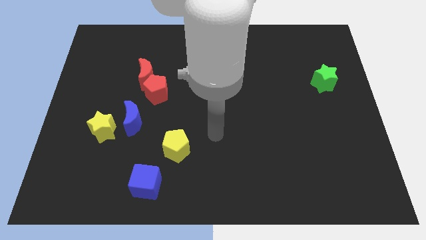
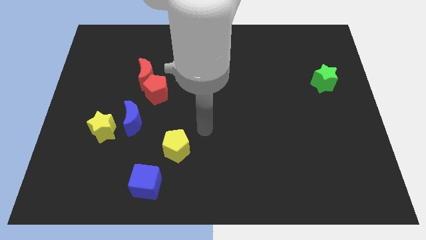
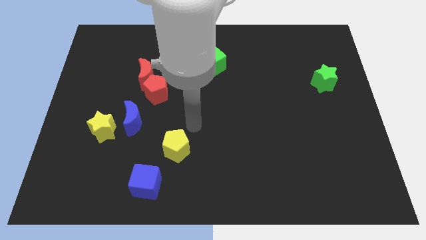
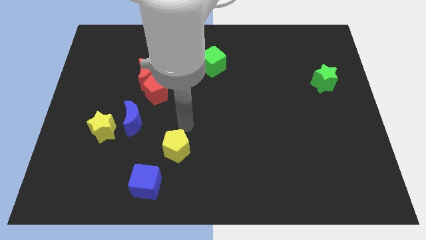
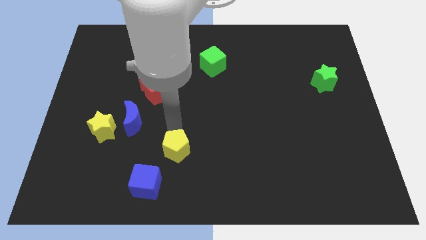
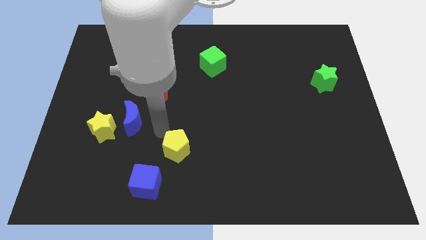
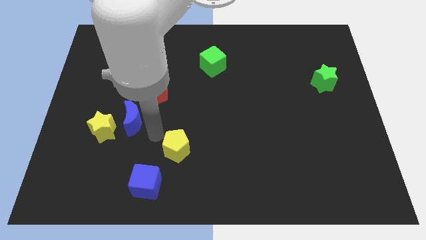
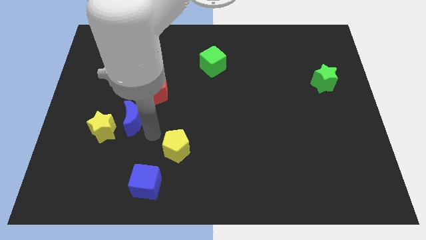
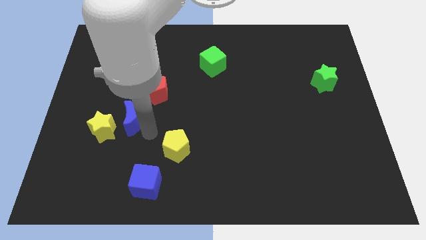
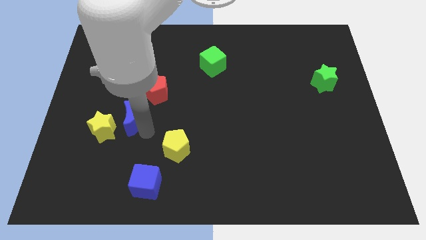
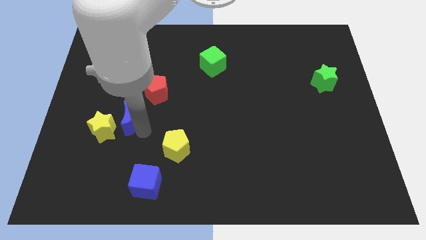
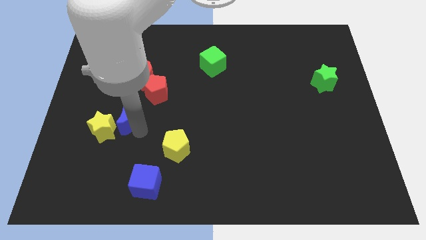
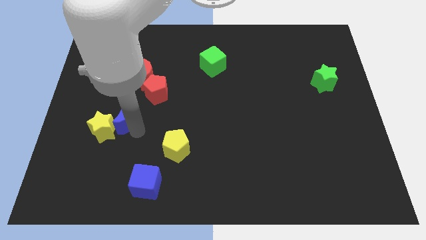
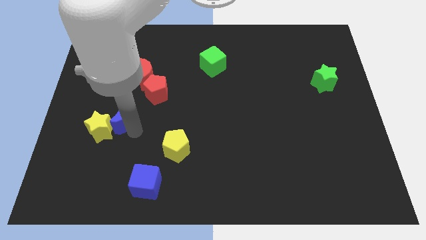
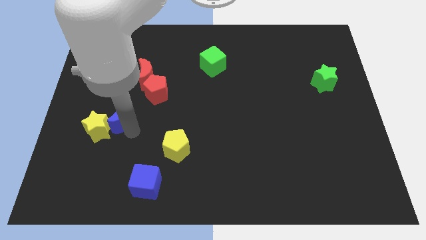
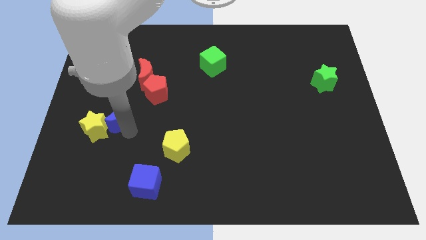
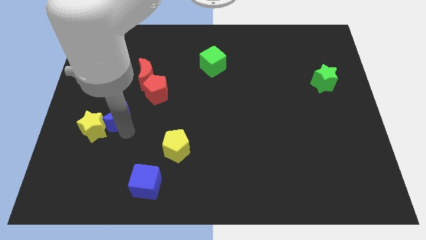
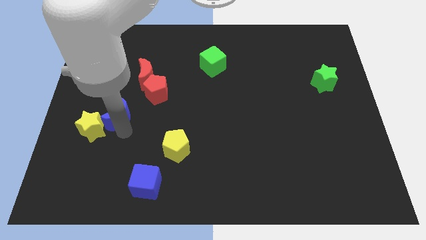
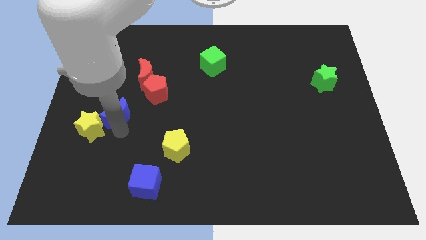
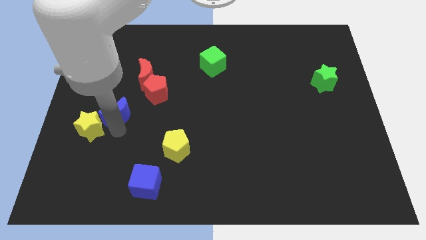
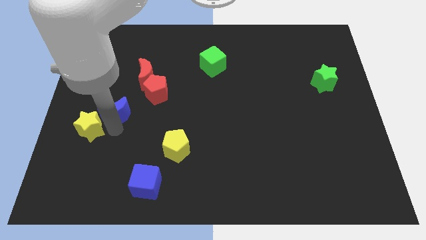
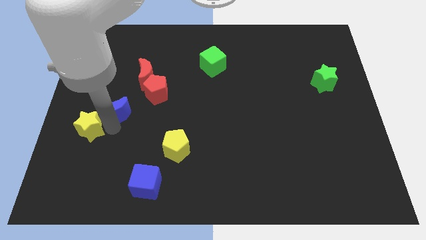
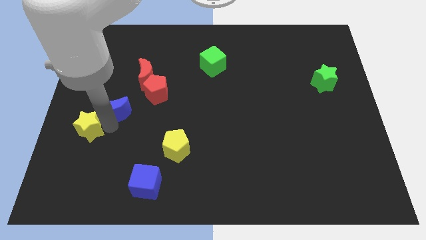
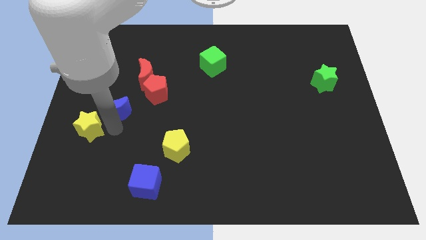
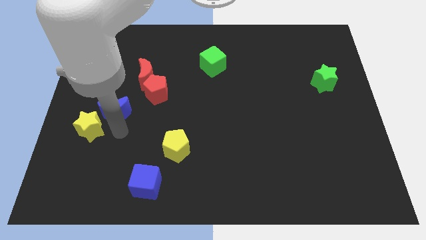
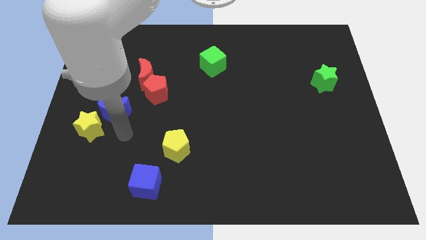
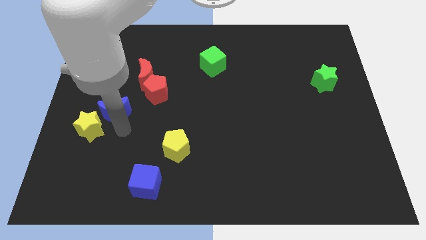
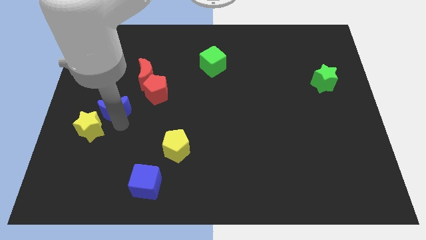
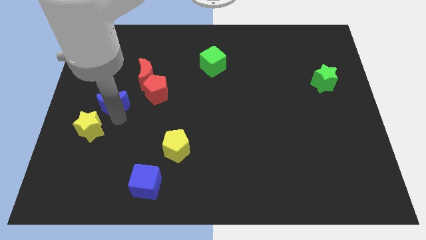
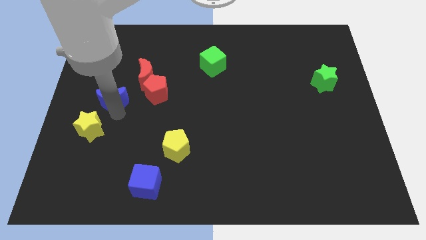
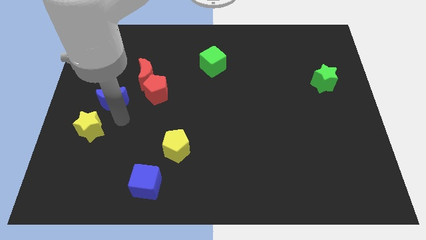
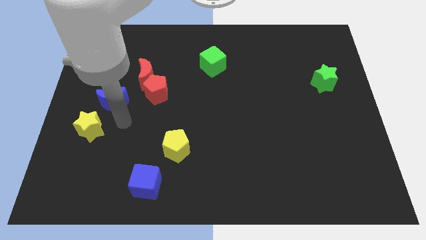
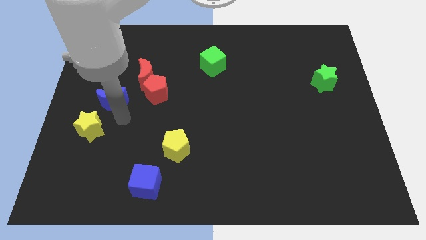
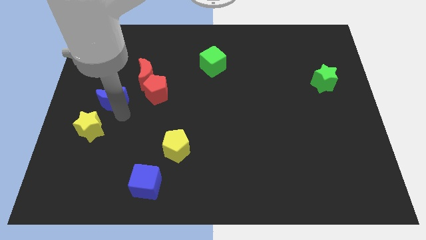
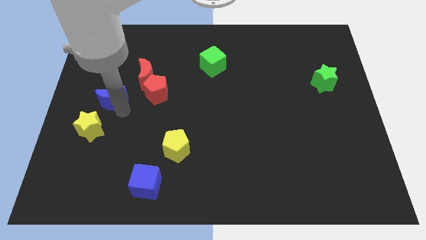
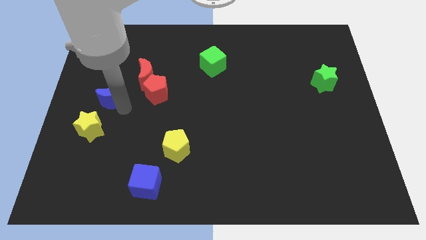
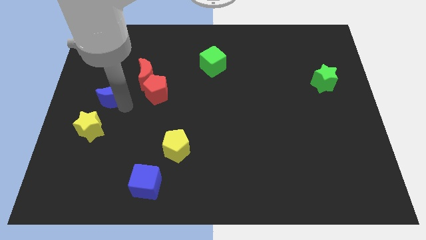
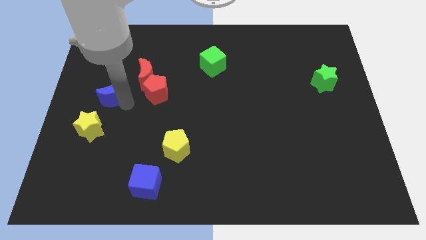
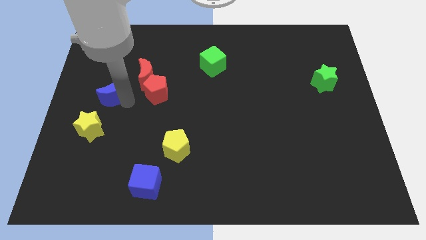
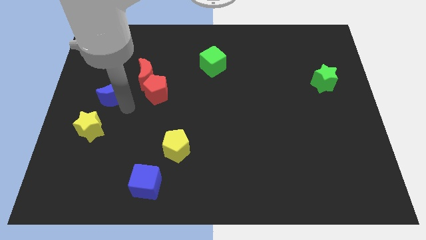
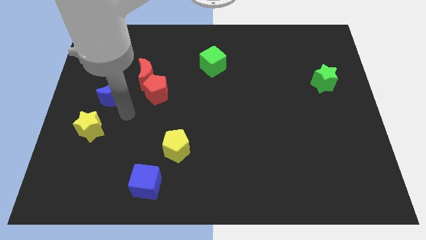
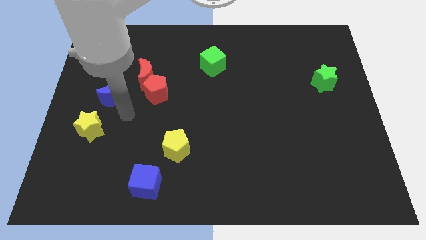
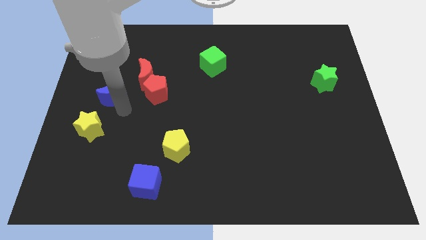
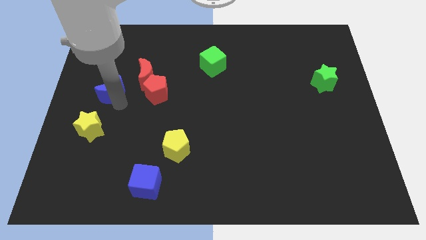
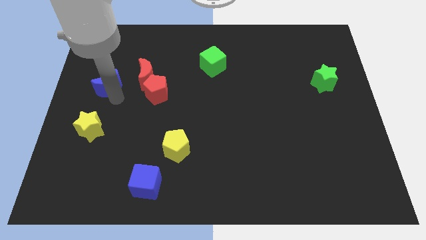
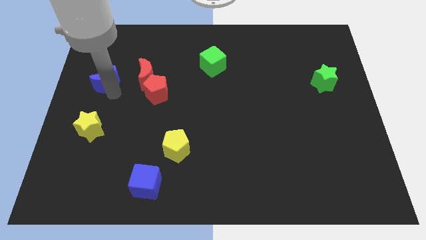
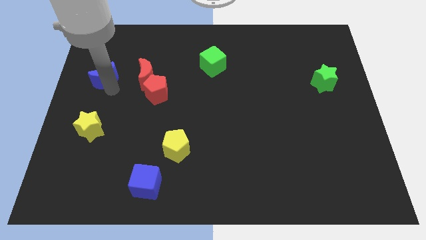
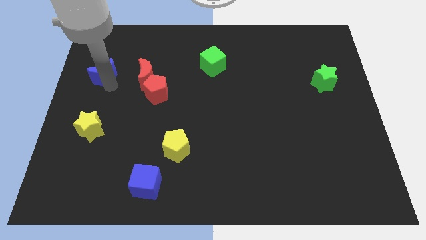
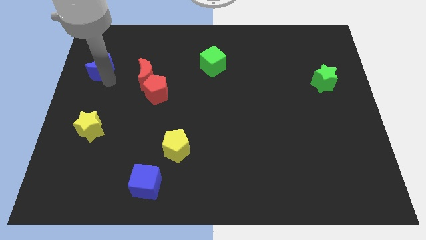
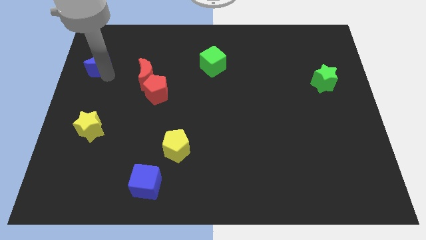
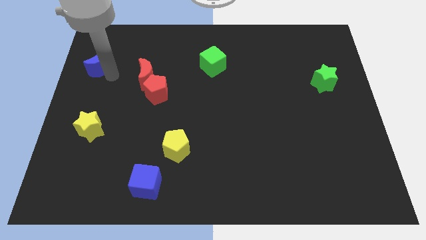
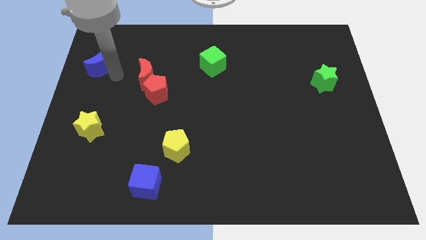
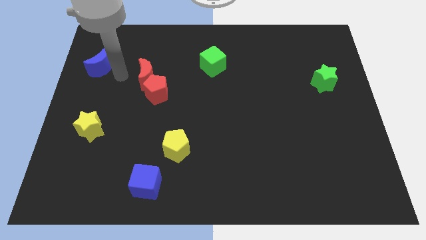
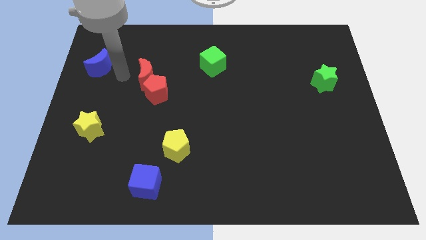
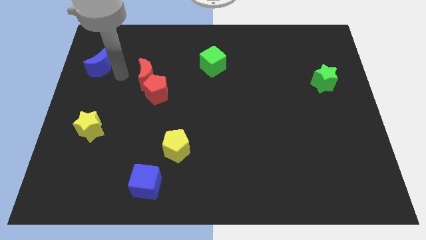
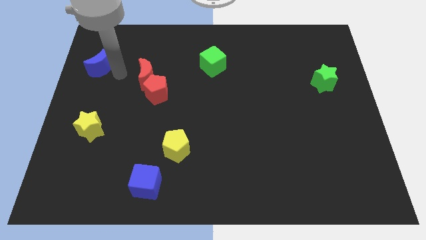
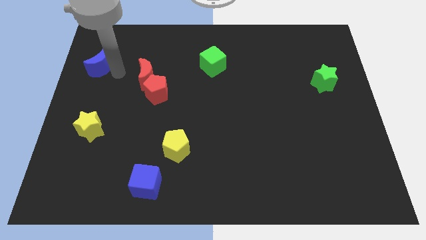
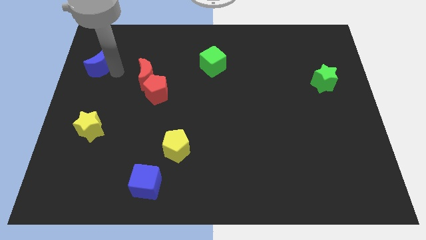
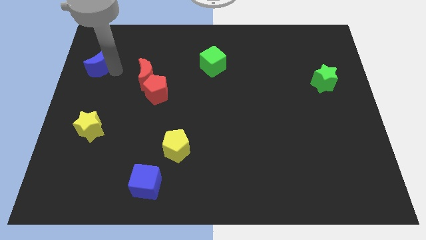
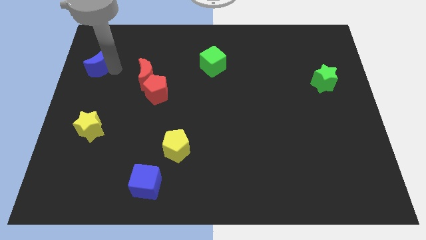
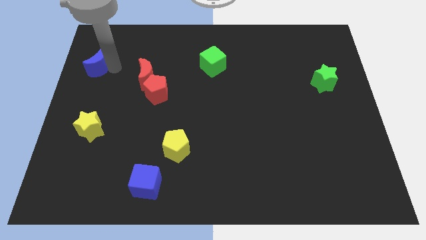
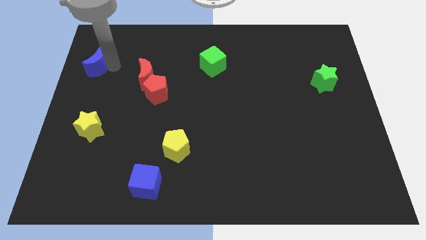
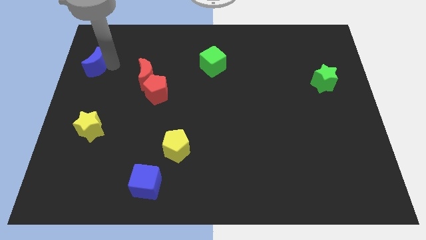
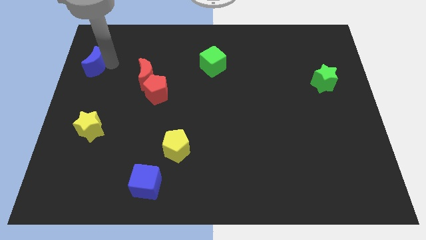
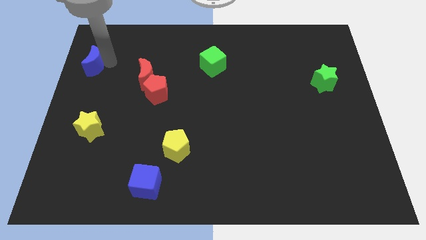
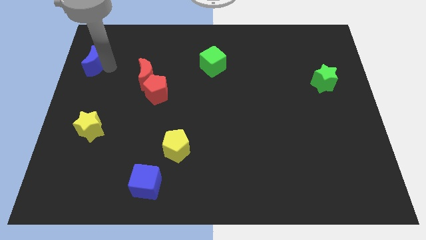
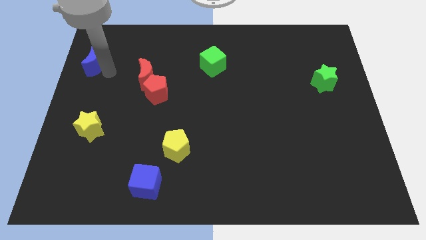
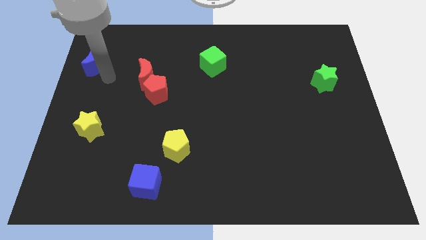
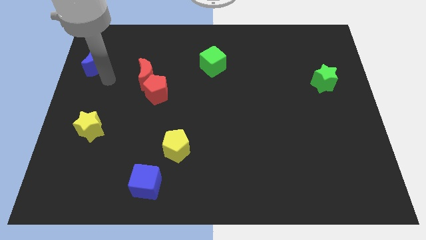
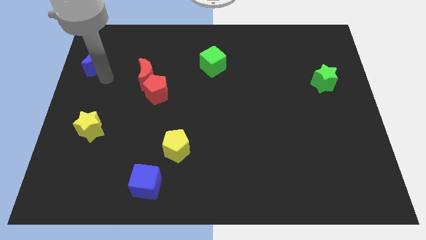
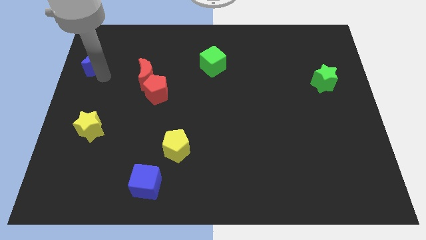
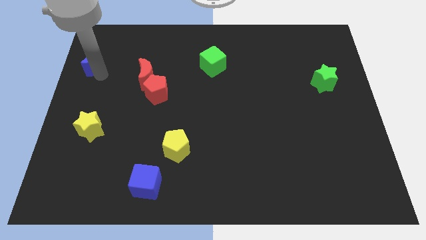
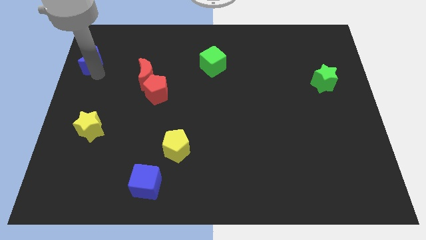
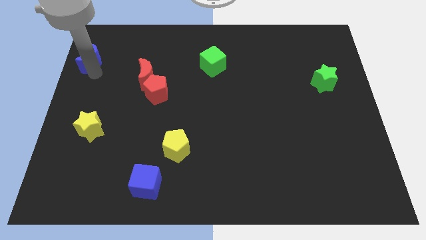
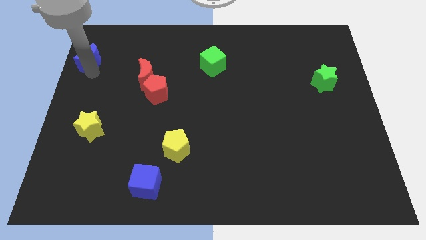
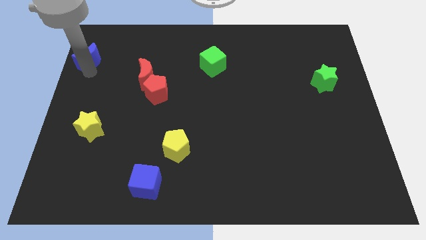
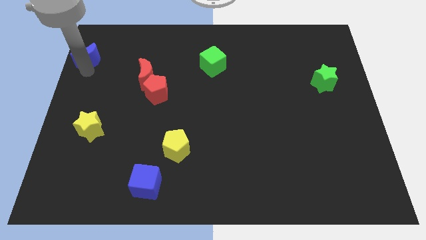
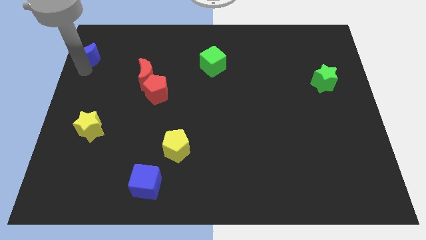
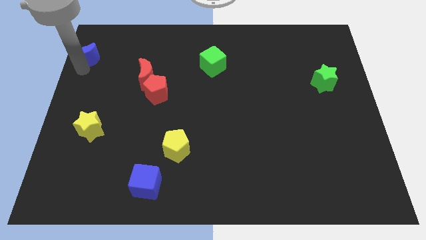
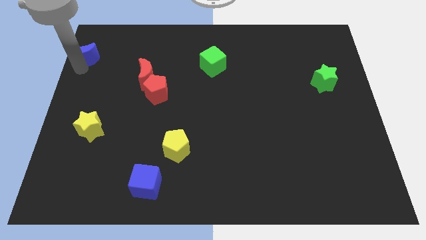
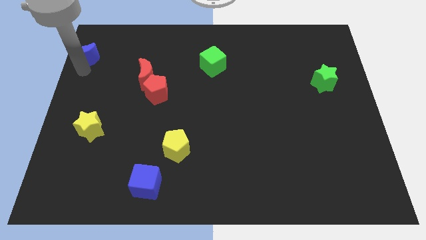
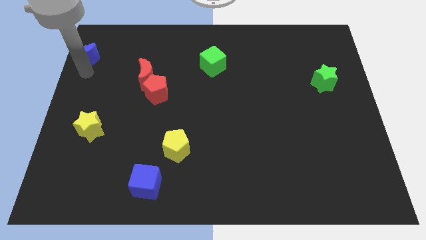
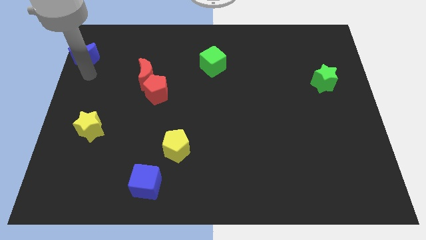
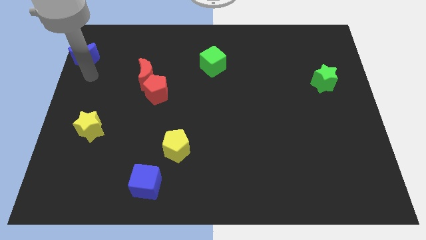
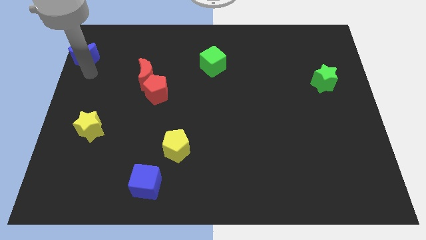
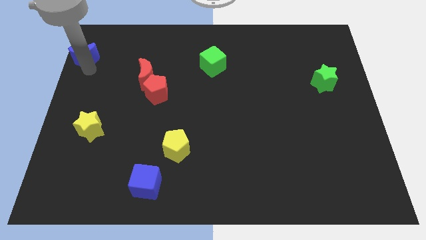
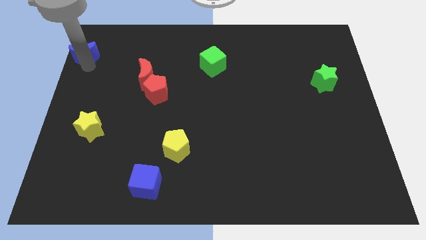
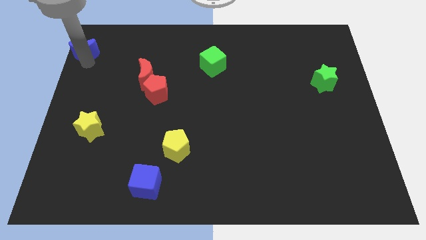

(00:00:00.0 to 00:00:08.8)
slide the blue moon to the top left of the board
